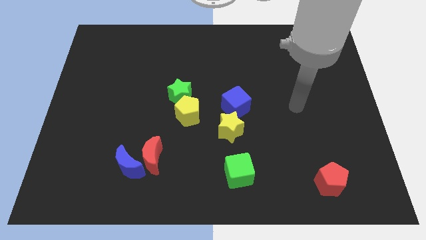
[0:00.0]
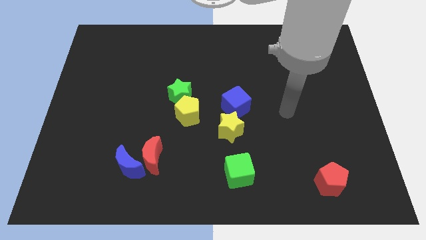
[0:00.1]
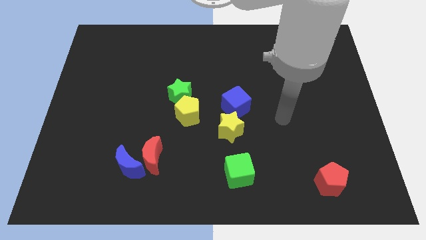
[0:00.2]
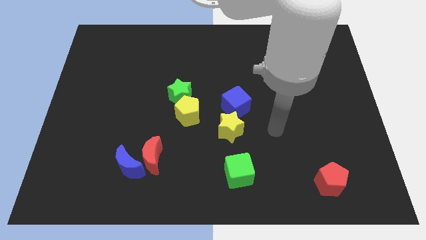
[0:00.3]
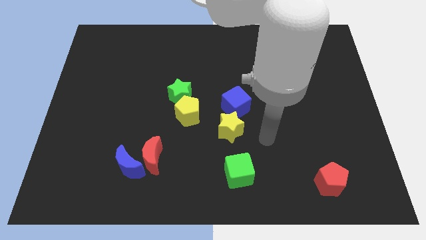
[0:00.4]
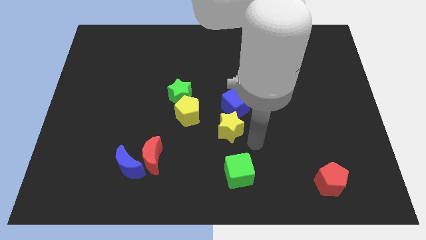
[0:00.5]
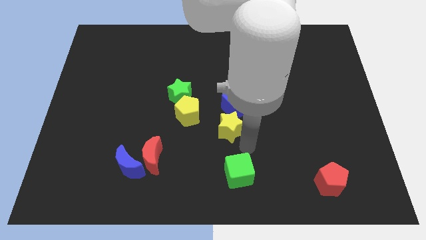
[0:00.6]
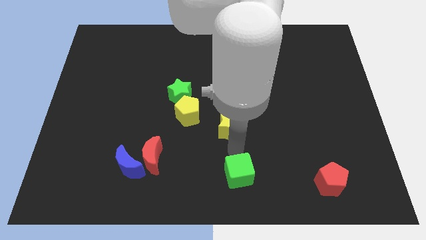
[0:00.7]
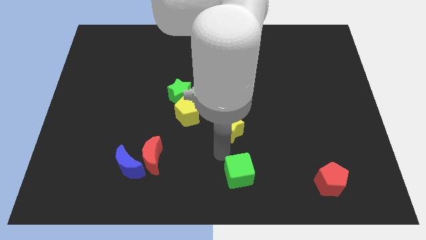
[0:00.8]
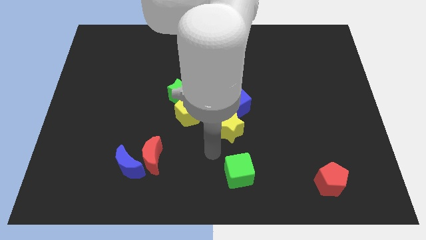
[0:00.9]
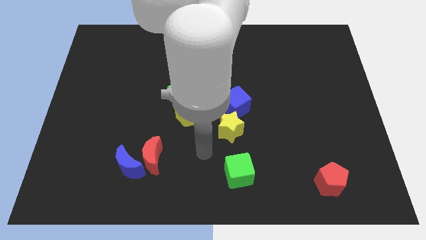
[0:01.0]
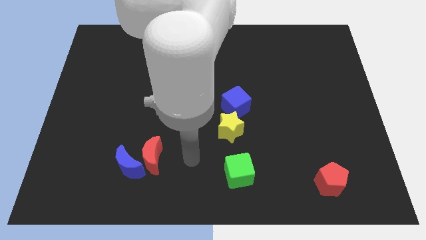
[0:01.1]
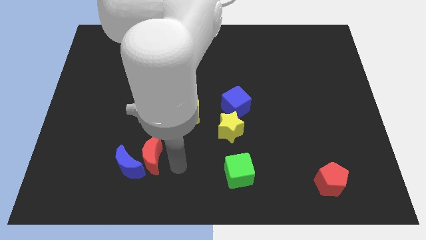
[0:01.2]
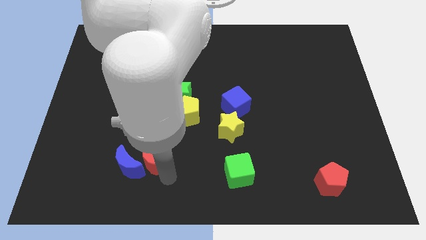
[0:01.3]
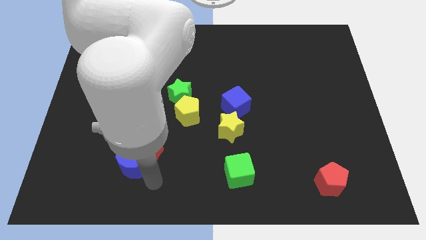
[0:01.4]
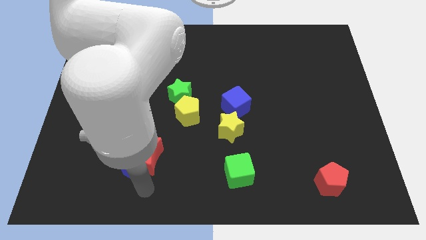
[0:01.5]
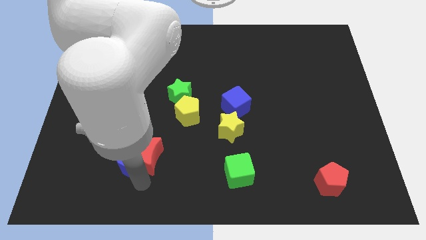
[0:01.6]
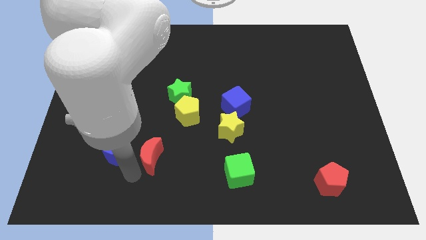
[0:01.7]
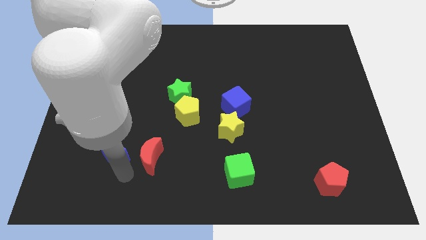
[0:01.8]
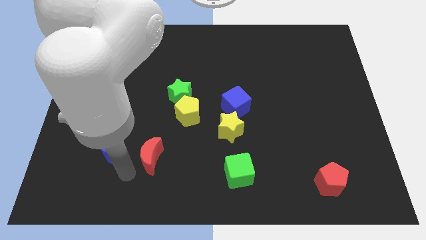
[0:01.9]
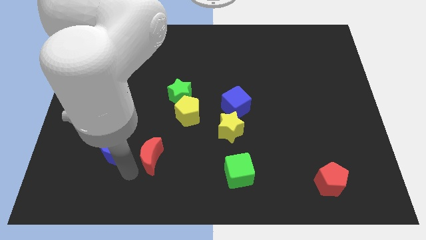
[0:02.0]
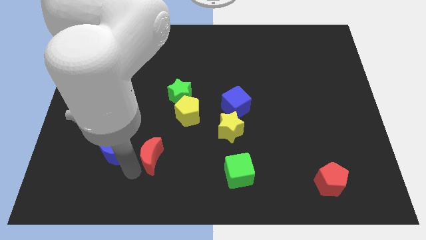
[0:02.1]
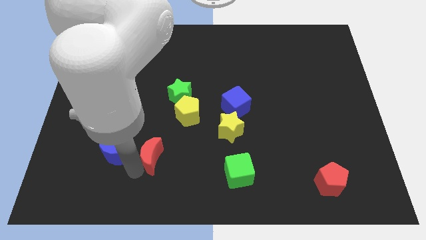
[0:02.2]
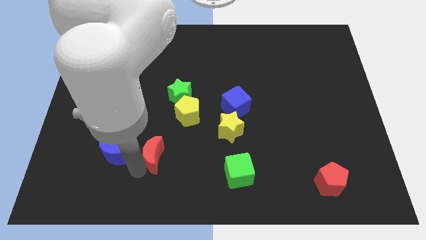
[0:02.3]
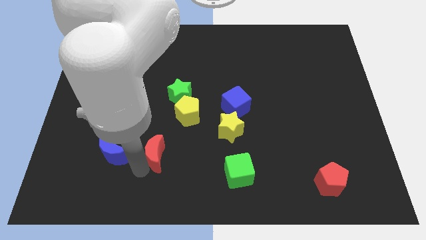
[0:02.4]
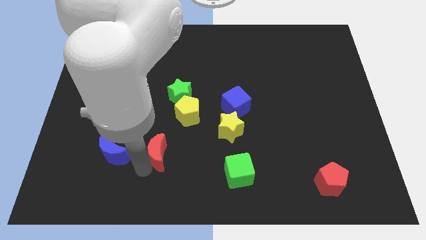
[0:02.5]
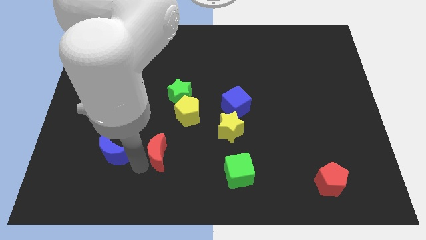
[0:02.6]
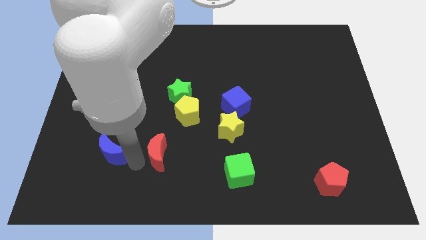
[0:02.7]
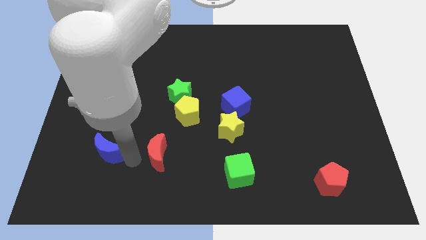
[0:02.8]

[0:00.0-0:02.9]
pull the red moon apart from the blue moon

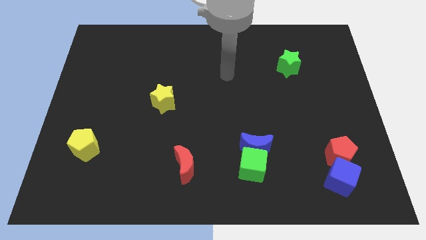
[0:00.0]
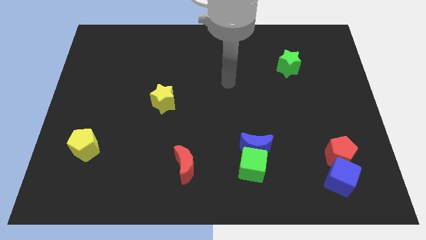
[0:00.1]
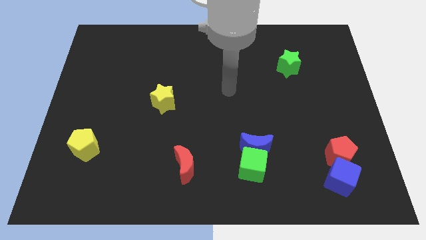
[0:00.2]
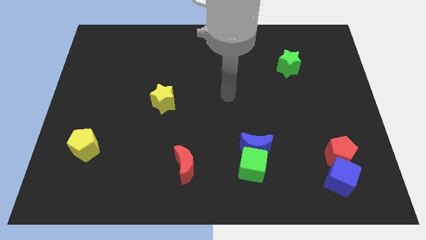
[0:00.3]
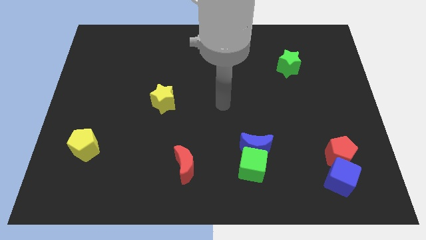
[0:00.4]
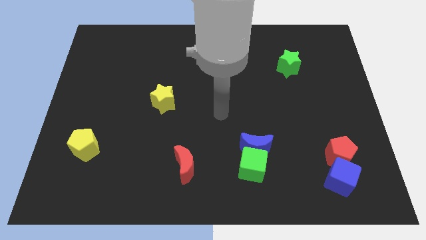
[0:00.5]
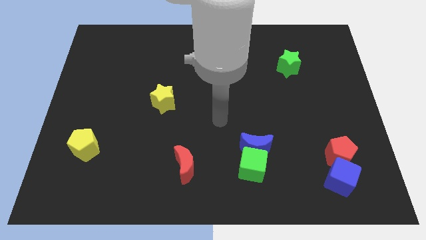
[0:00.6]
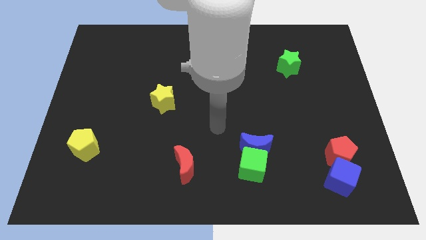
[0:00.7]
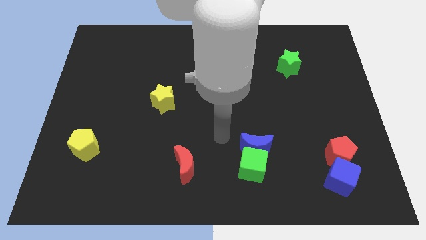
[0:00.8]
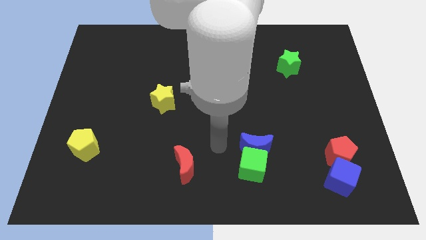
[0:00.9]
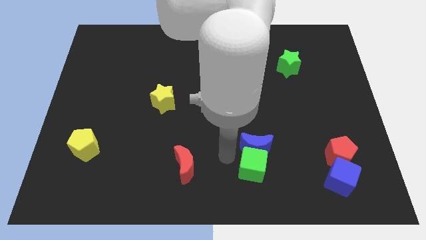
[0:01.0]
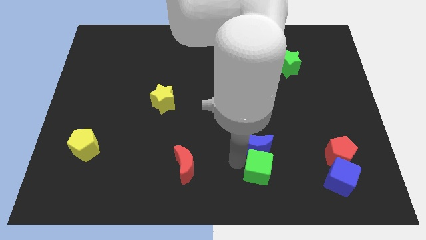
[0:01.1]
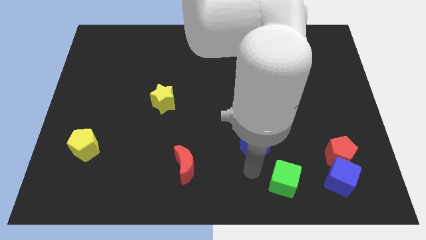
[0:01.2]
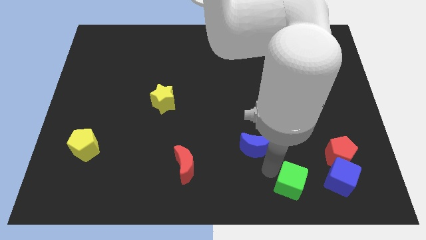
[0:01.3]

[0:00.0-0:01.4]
pull the blue moon apart from the green cube

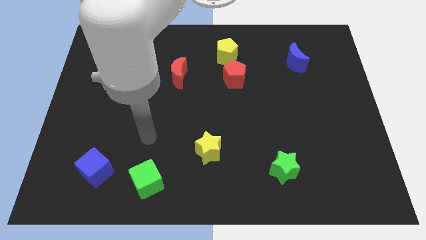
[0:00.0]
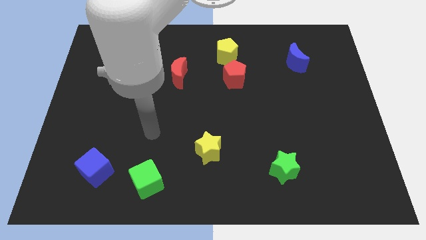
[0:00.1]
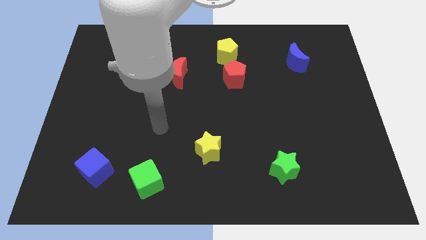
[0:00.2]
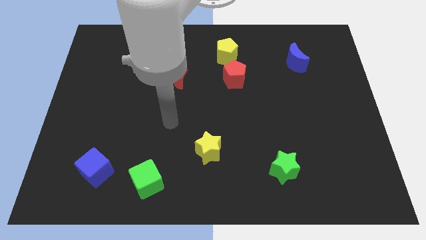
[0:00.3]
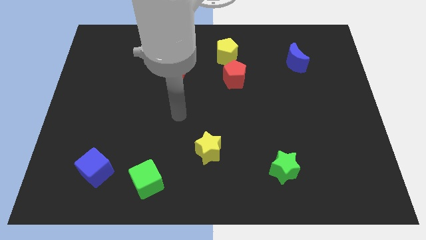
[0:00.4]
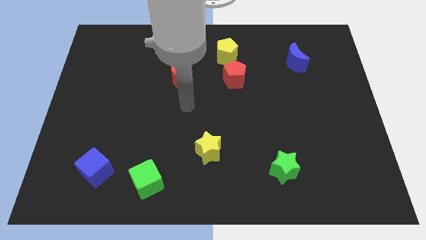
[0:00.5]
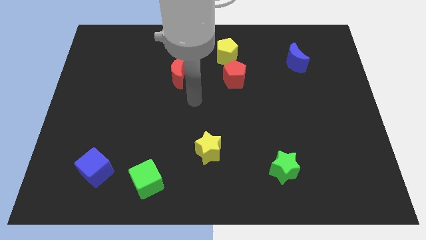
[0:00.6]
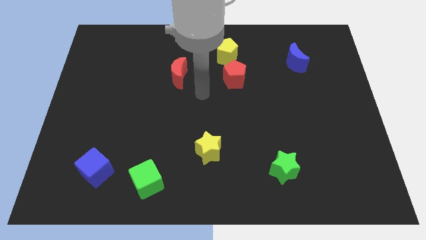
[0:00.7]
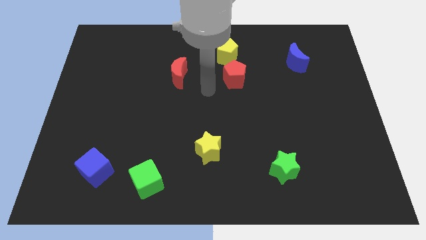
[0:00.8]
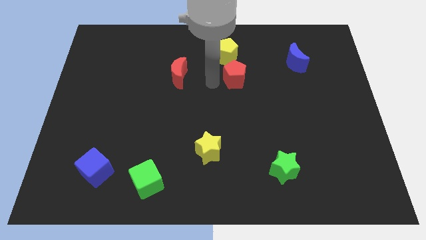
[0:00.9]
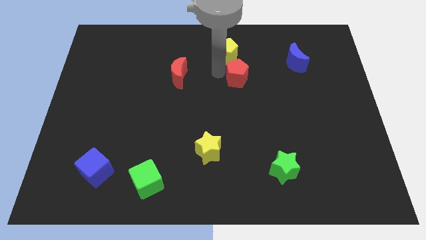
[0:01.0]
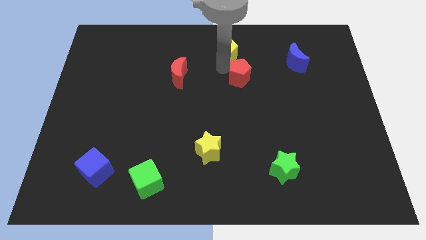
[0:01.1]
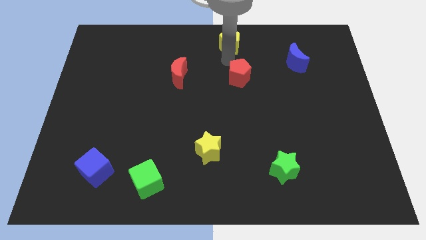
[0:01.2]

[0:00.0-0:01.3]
move the red pentagon away from the yellow pentagon

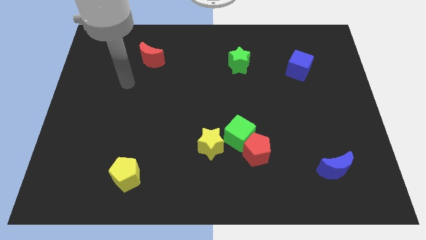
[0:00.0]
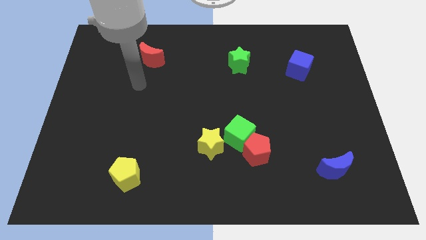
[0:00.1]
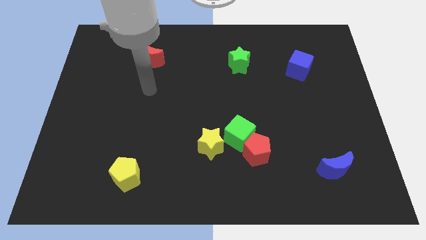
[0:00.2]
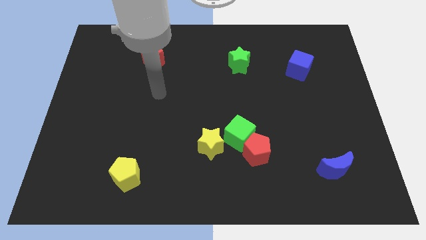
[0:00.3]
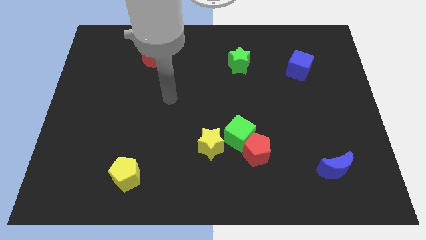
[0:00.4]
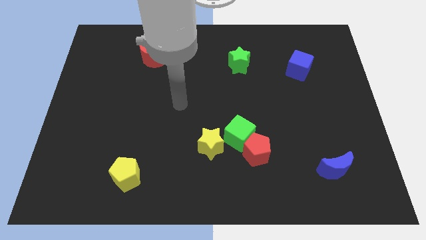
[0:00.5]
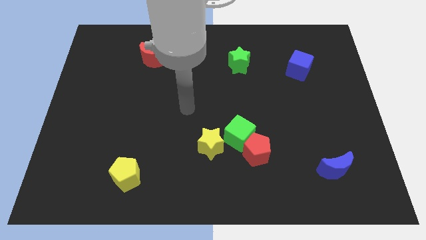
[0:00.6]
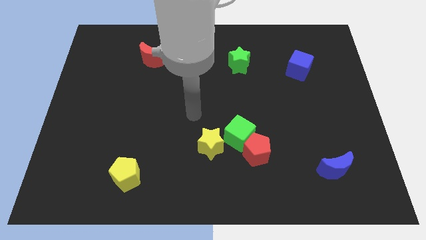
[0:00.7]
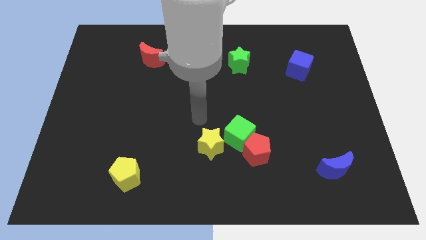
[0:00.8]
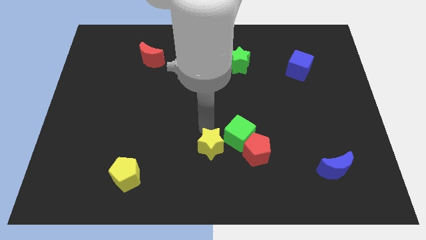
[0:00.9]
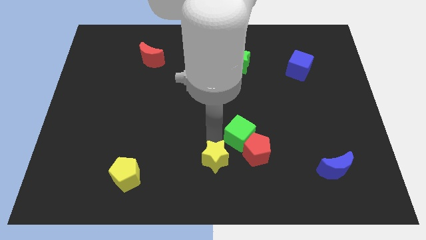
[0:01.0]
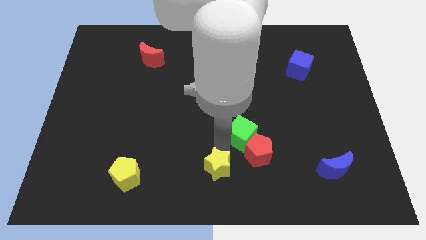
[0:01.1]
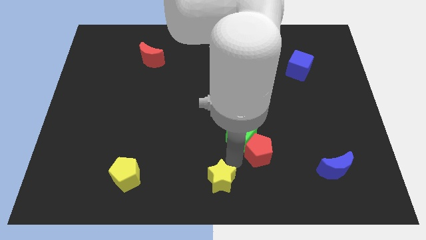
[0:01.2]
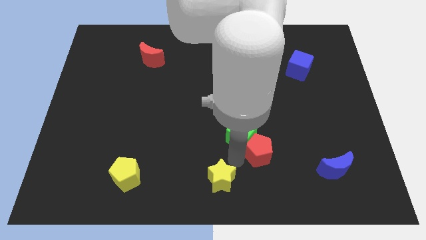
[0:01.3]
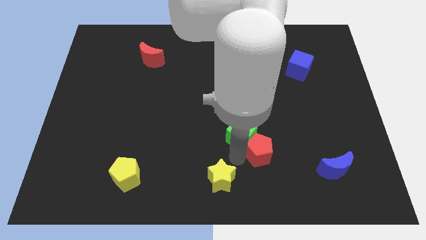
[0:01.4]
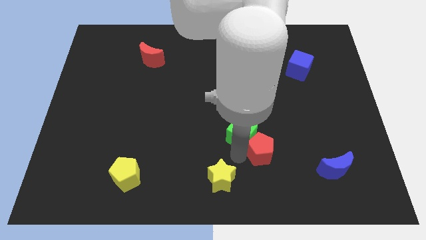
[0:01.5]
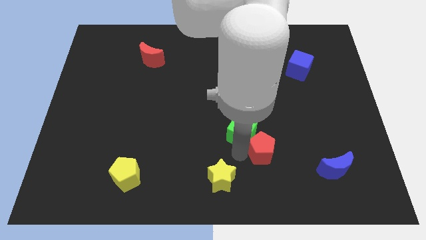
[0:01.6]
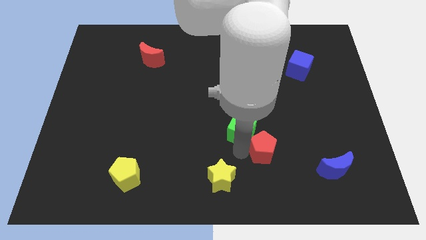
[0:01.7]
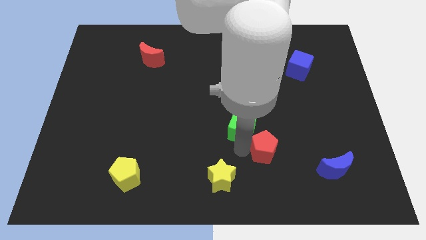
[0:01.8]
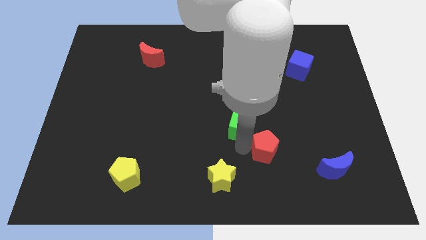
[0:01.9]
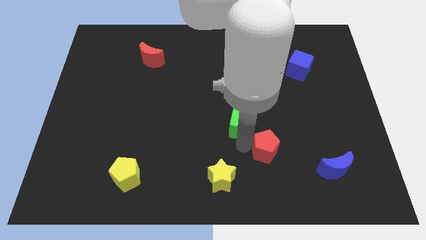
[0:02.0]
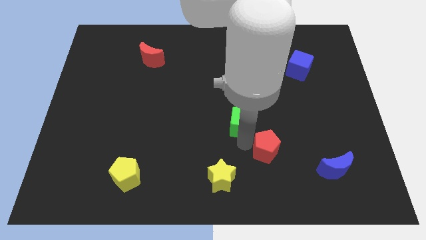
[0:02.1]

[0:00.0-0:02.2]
separate the green cube from the red pentagon and yellow star

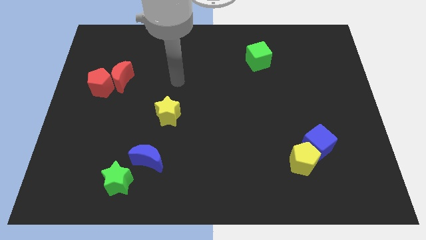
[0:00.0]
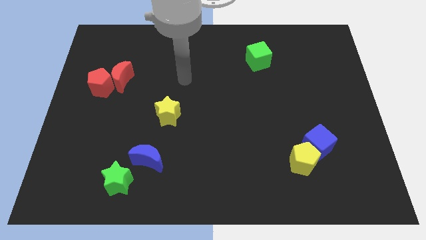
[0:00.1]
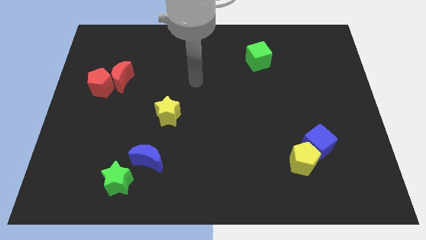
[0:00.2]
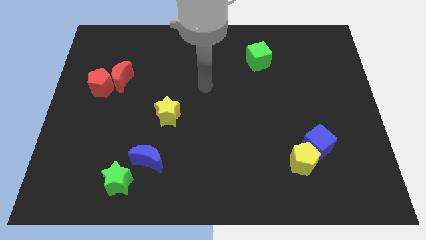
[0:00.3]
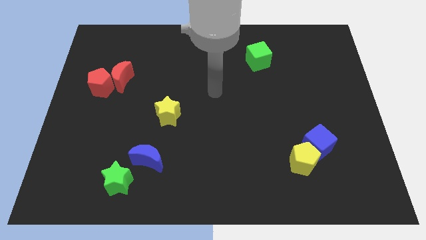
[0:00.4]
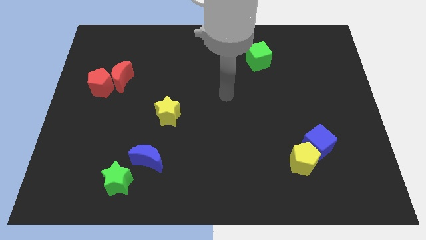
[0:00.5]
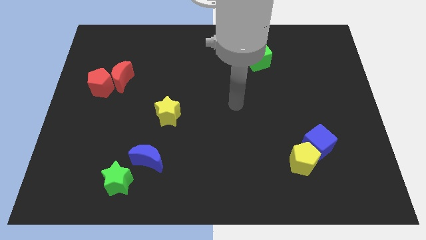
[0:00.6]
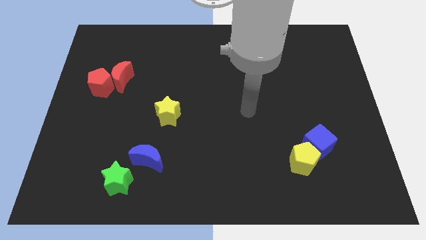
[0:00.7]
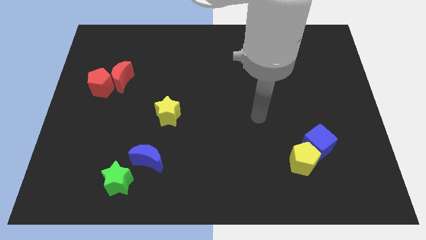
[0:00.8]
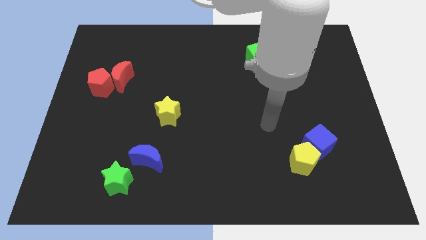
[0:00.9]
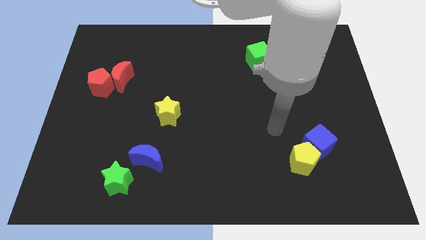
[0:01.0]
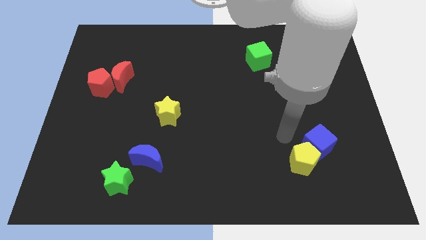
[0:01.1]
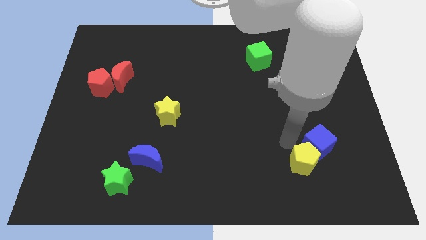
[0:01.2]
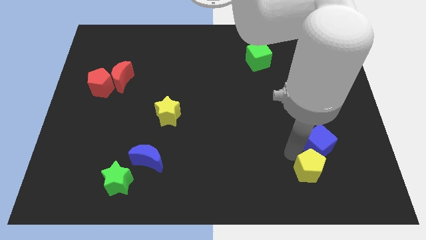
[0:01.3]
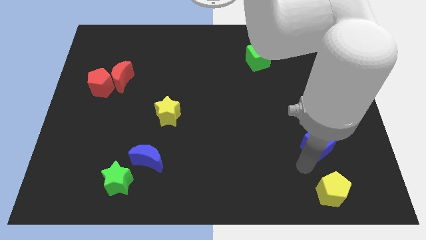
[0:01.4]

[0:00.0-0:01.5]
move the blue cube away from the yellow pentagon
